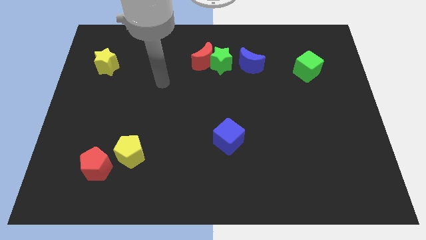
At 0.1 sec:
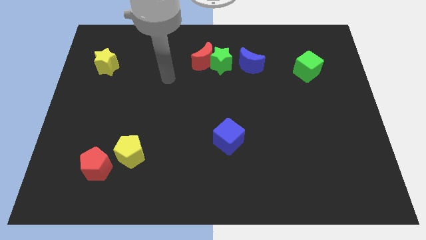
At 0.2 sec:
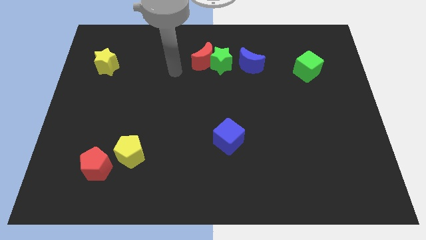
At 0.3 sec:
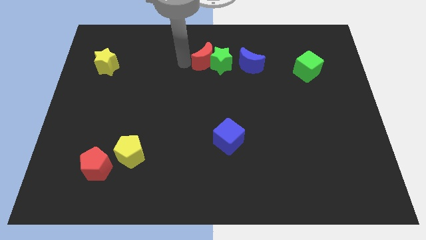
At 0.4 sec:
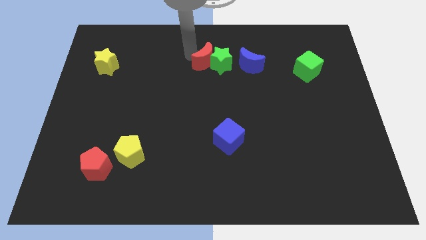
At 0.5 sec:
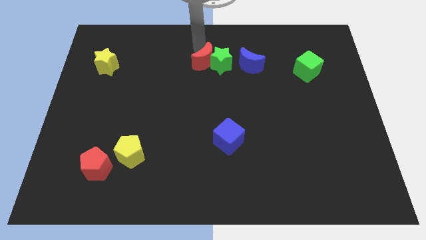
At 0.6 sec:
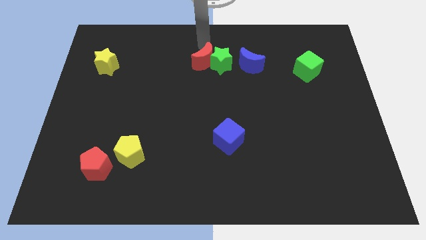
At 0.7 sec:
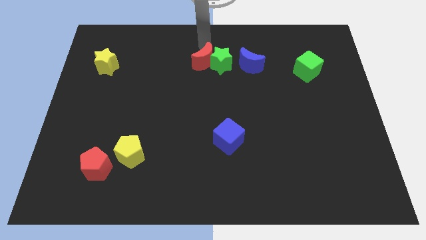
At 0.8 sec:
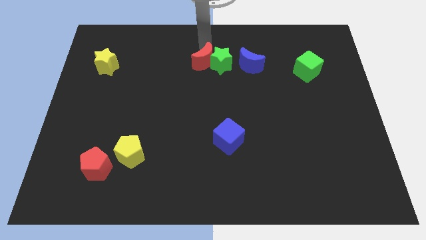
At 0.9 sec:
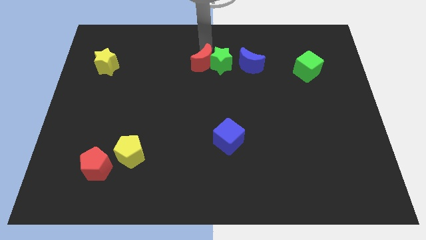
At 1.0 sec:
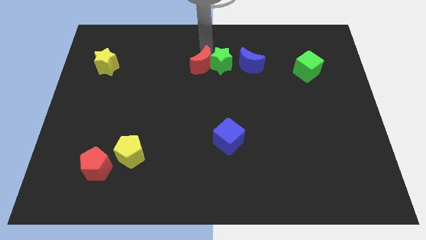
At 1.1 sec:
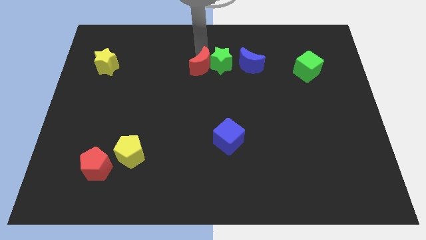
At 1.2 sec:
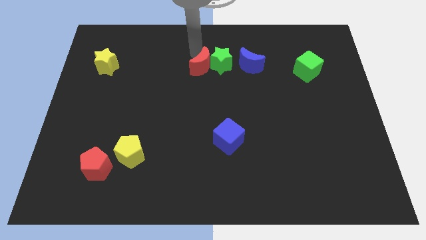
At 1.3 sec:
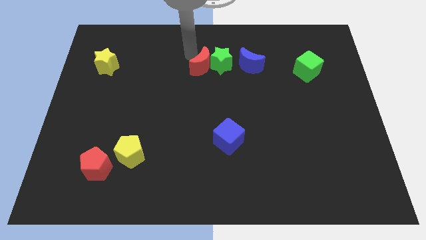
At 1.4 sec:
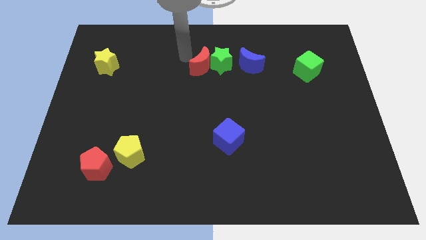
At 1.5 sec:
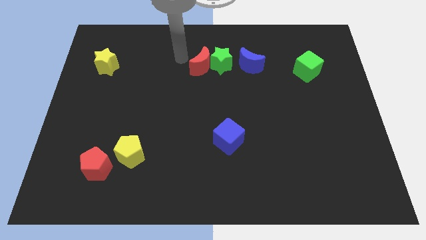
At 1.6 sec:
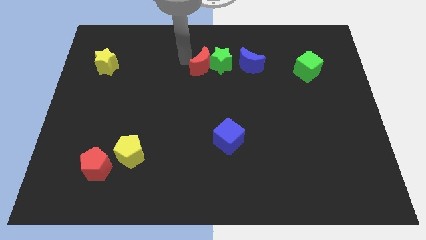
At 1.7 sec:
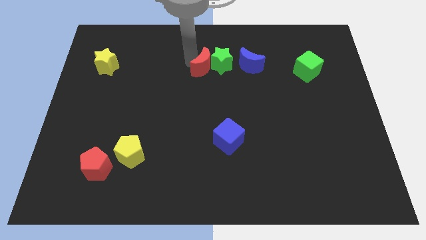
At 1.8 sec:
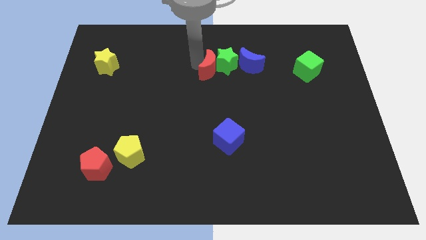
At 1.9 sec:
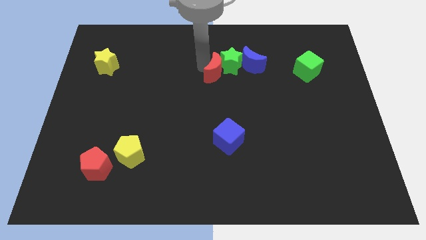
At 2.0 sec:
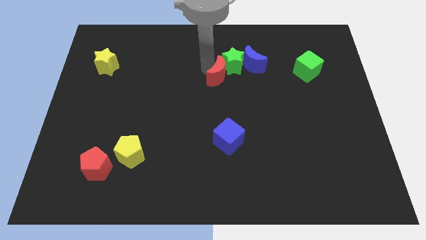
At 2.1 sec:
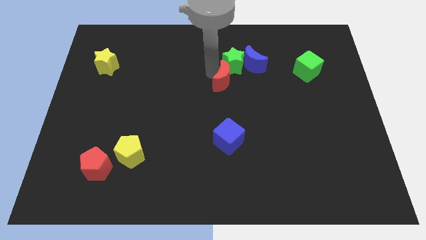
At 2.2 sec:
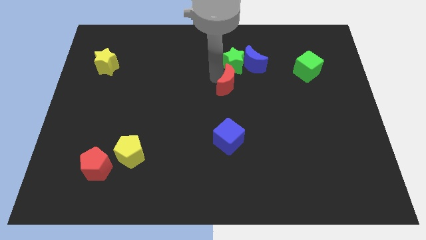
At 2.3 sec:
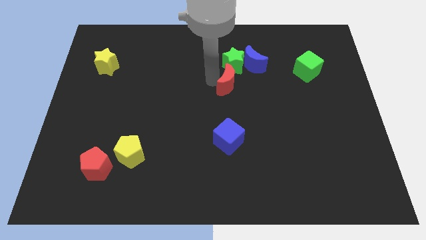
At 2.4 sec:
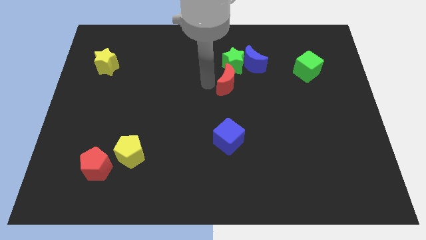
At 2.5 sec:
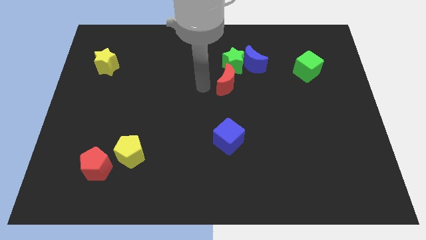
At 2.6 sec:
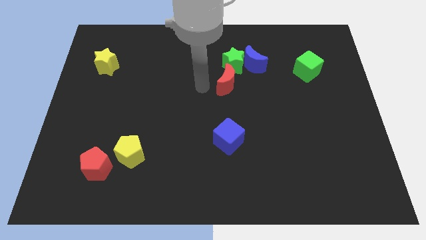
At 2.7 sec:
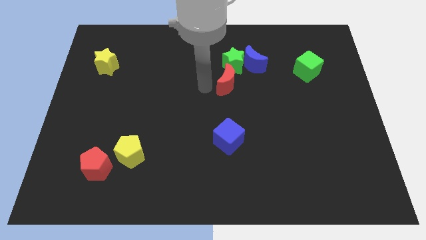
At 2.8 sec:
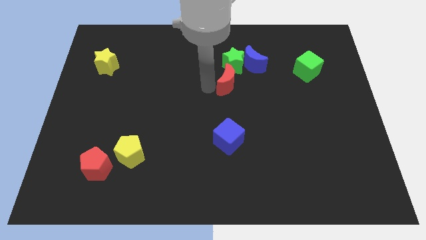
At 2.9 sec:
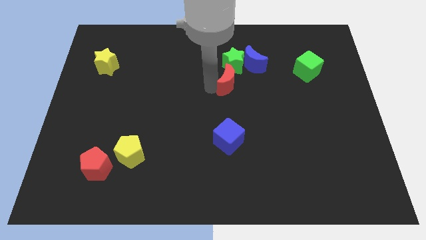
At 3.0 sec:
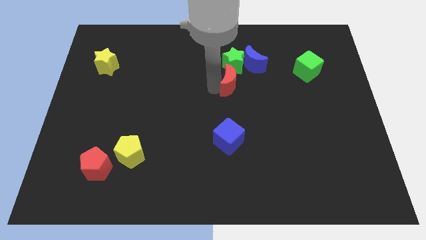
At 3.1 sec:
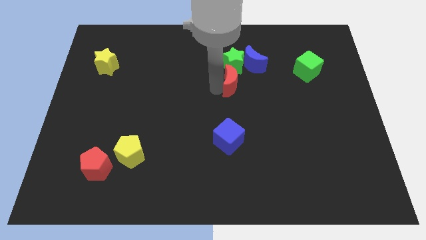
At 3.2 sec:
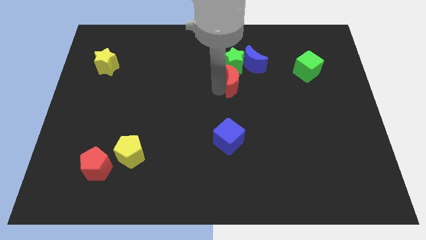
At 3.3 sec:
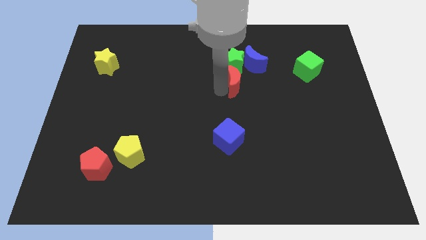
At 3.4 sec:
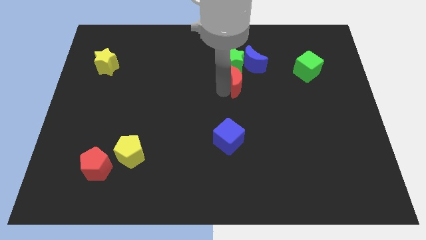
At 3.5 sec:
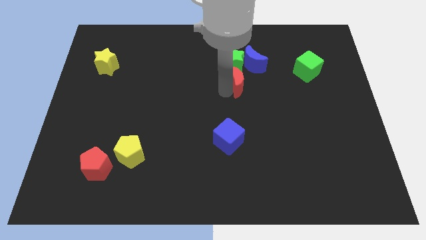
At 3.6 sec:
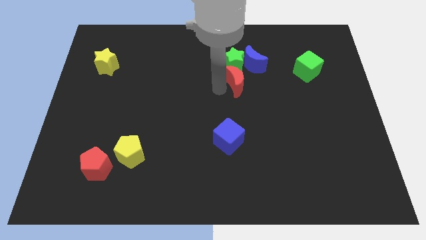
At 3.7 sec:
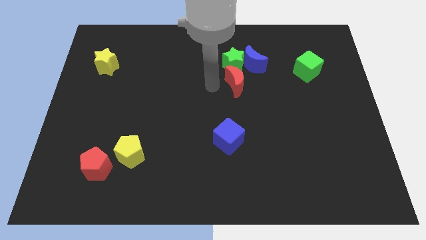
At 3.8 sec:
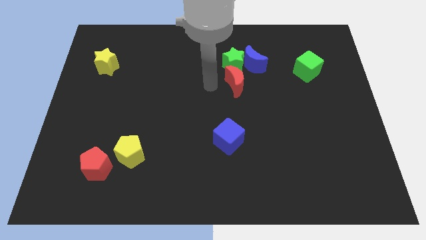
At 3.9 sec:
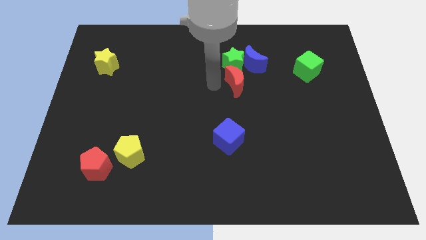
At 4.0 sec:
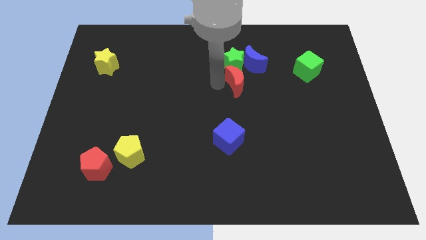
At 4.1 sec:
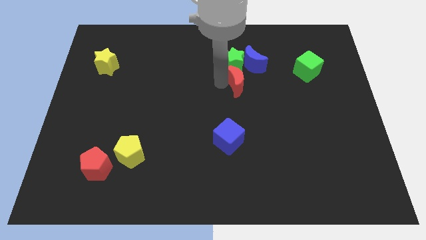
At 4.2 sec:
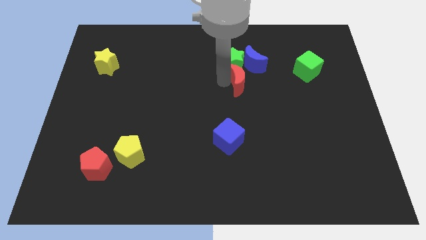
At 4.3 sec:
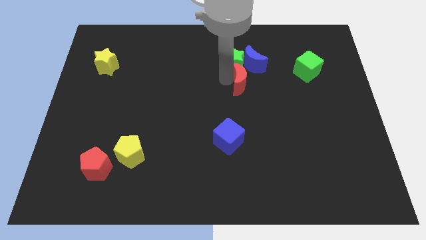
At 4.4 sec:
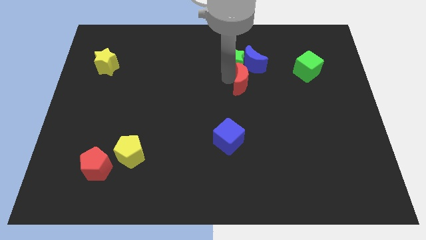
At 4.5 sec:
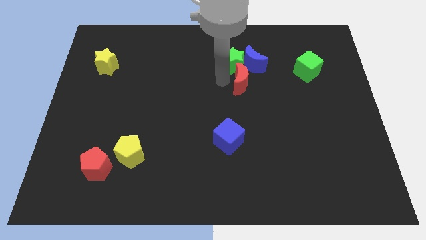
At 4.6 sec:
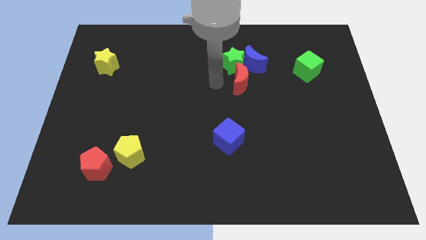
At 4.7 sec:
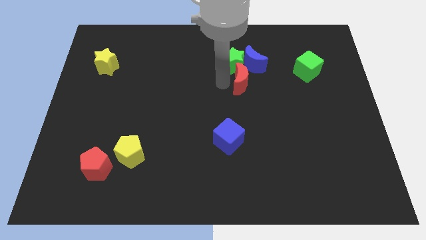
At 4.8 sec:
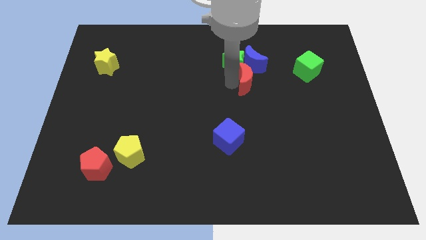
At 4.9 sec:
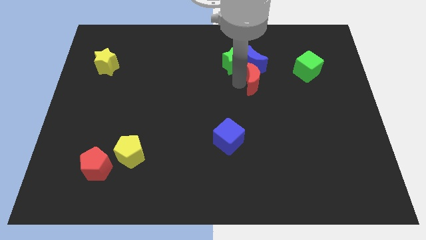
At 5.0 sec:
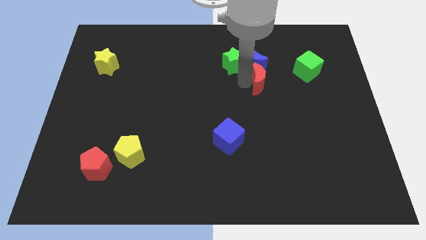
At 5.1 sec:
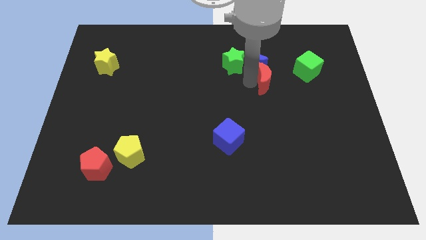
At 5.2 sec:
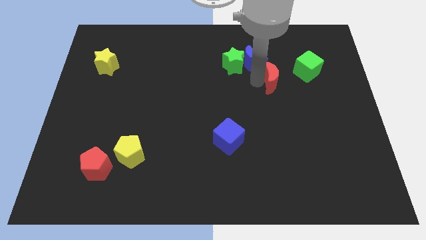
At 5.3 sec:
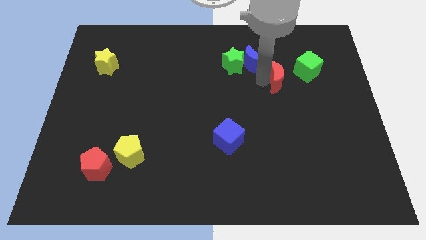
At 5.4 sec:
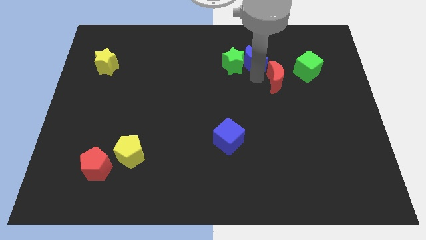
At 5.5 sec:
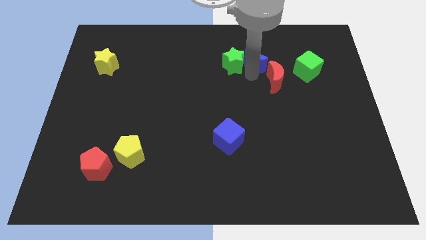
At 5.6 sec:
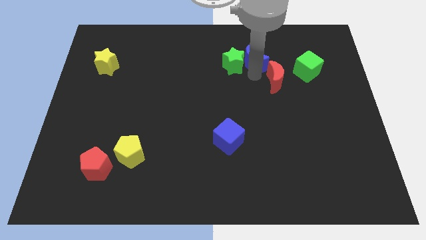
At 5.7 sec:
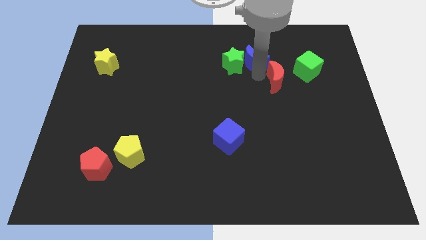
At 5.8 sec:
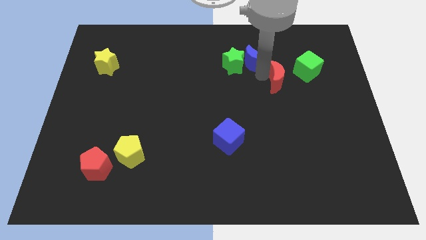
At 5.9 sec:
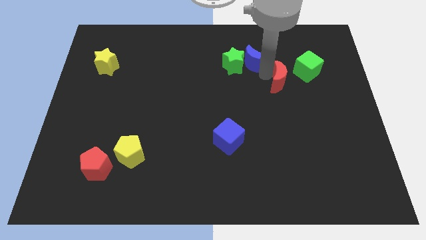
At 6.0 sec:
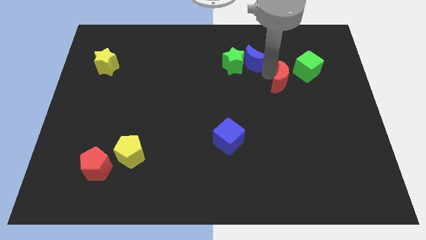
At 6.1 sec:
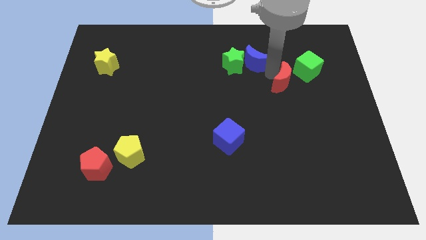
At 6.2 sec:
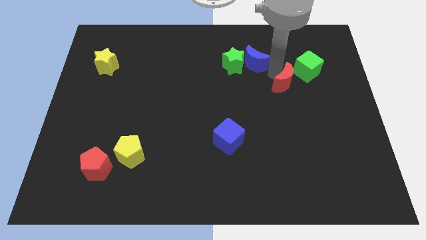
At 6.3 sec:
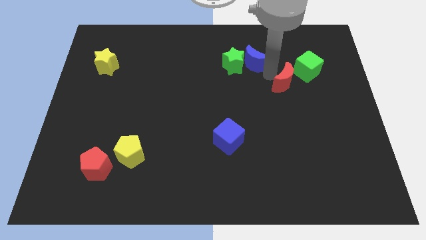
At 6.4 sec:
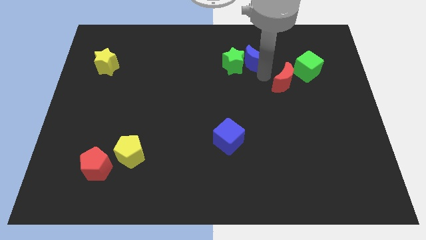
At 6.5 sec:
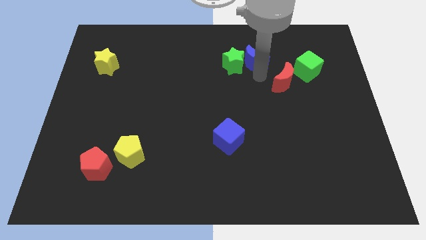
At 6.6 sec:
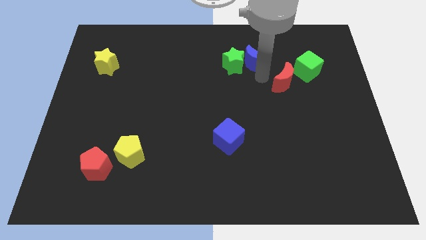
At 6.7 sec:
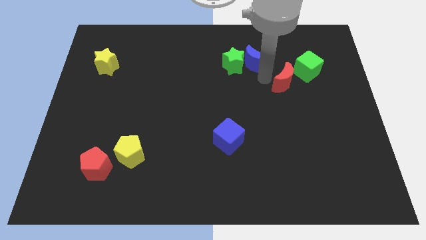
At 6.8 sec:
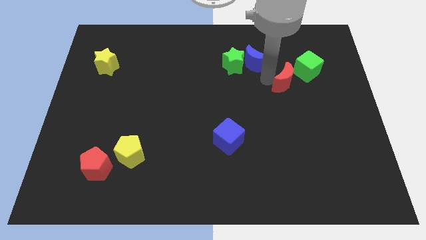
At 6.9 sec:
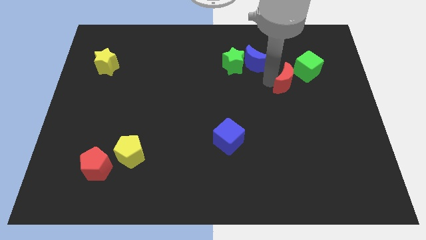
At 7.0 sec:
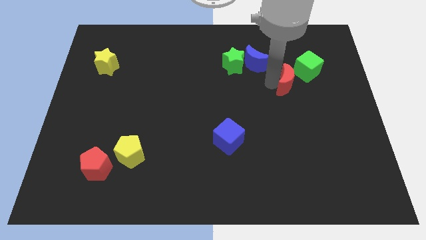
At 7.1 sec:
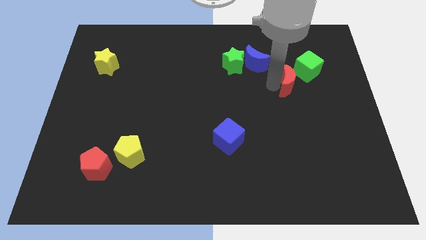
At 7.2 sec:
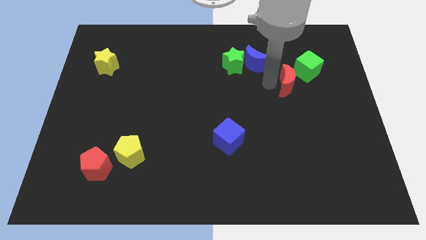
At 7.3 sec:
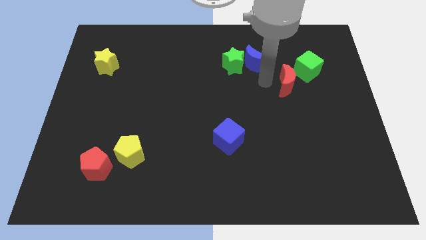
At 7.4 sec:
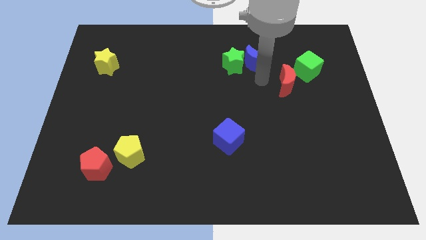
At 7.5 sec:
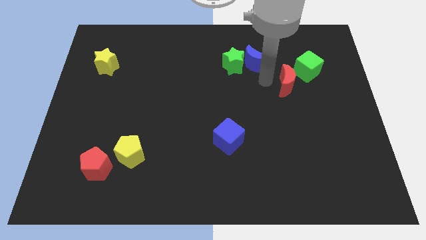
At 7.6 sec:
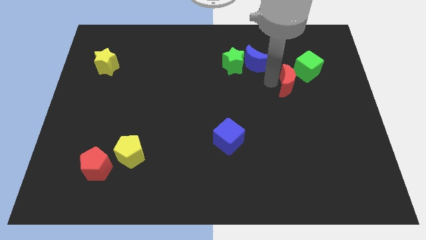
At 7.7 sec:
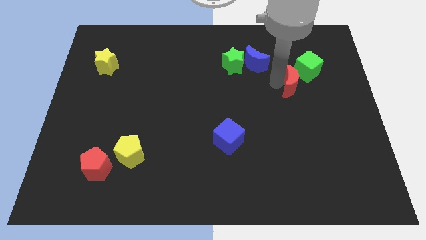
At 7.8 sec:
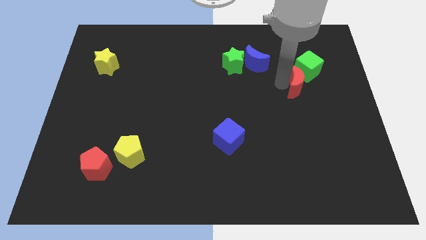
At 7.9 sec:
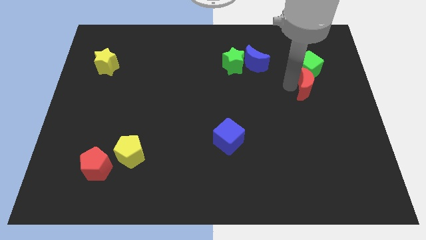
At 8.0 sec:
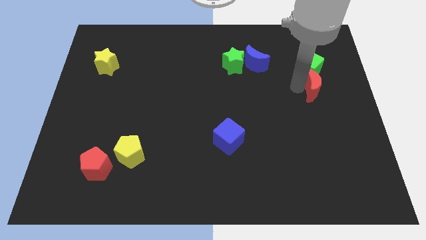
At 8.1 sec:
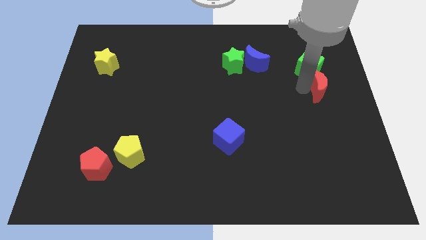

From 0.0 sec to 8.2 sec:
push the red moon to the right side
